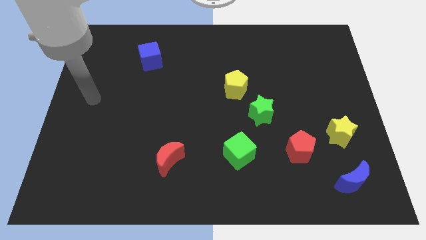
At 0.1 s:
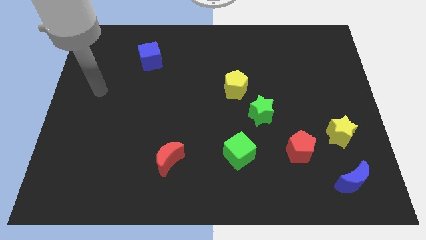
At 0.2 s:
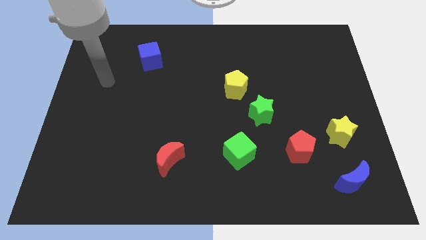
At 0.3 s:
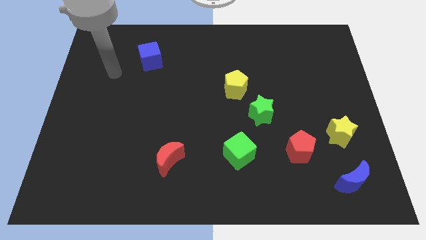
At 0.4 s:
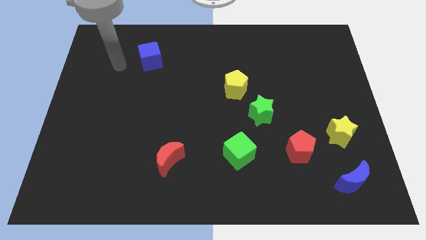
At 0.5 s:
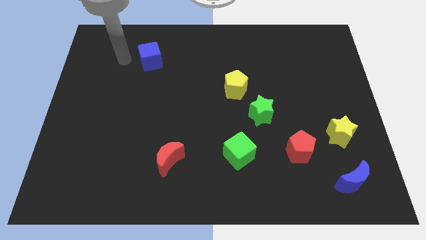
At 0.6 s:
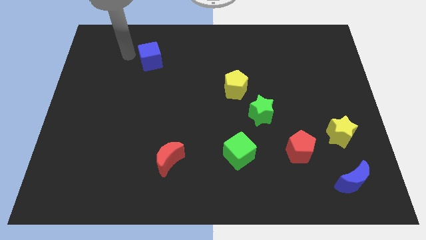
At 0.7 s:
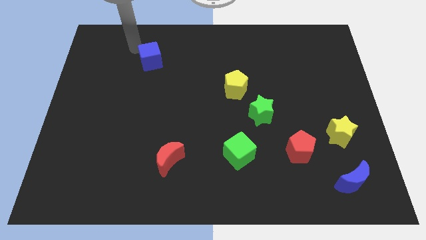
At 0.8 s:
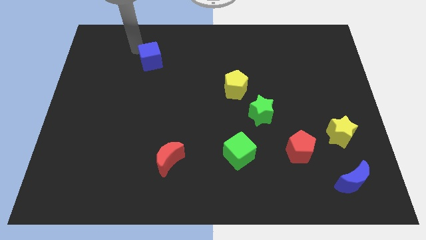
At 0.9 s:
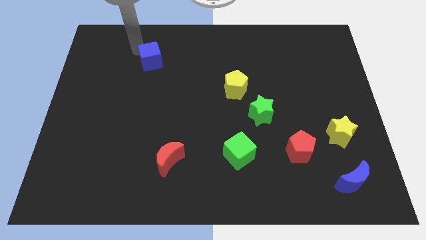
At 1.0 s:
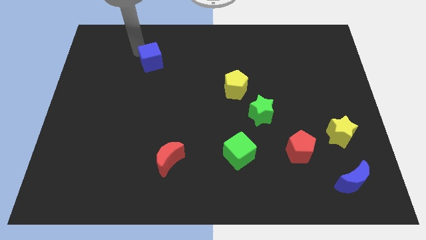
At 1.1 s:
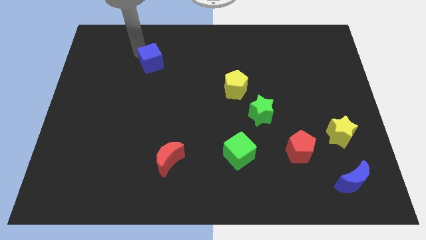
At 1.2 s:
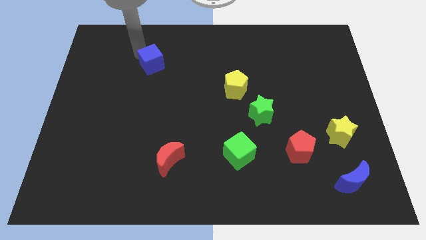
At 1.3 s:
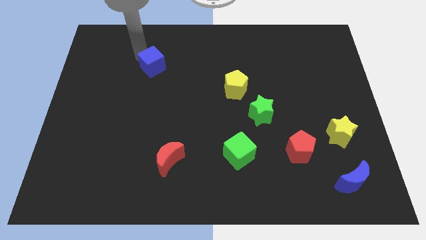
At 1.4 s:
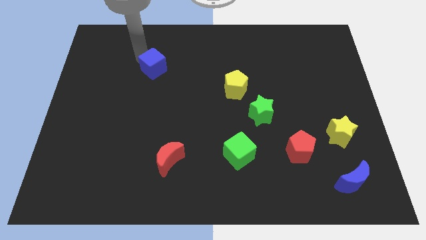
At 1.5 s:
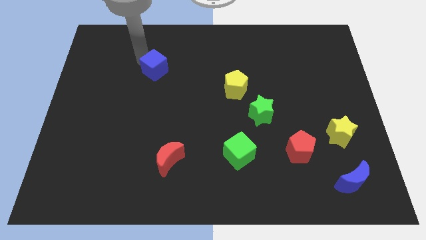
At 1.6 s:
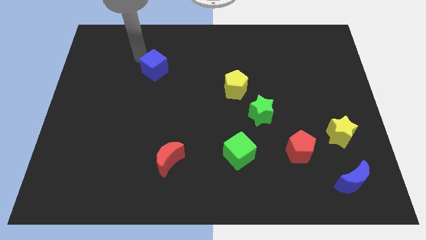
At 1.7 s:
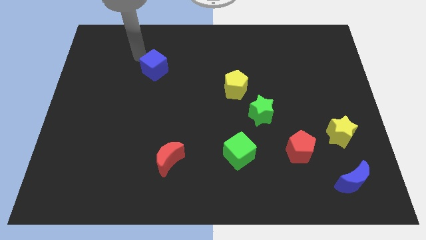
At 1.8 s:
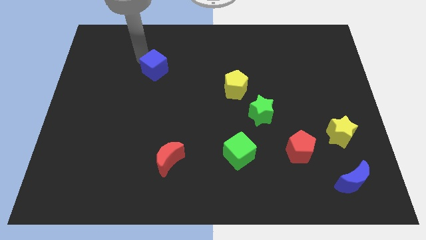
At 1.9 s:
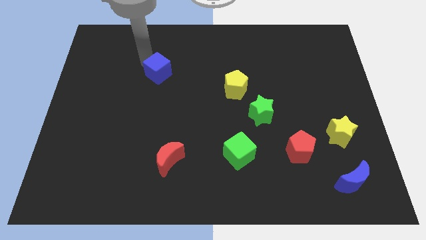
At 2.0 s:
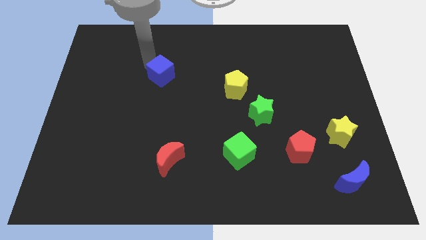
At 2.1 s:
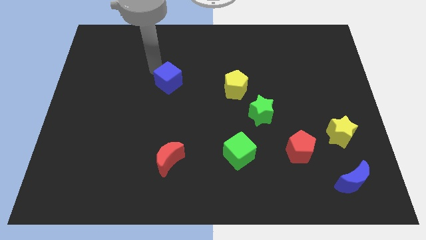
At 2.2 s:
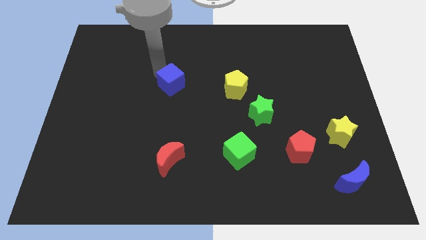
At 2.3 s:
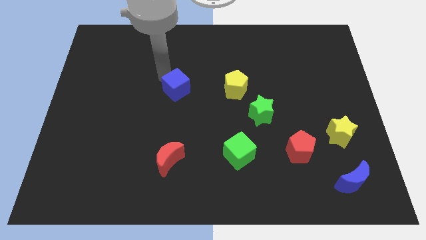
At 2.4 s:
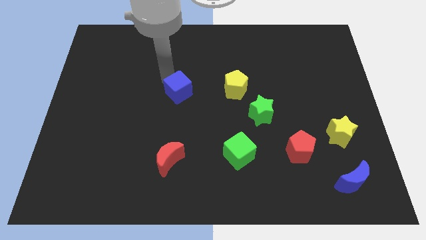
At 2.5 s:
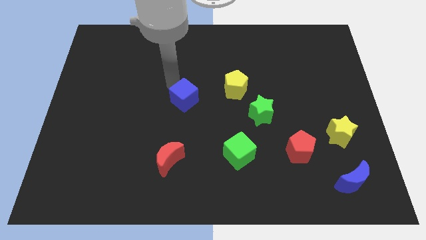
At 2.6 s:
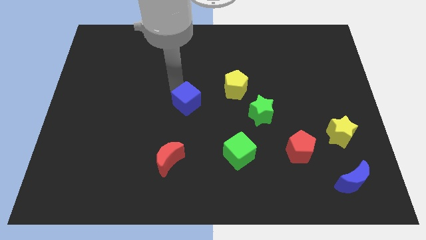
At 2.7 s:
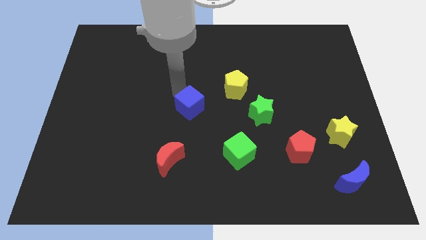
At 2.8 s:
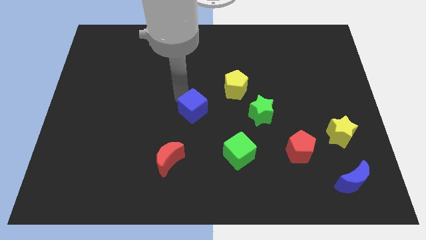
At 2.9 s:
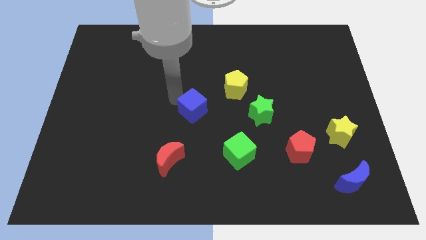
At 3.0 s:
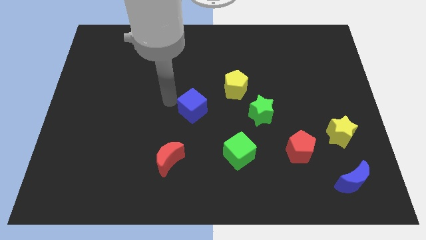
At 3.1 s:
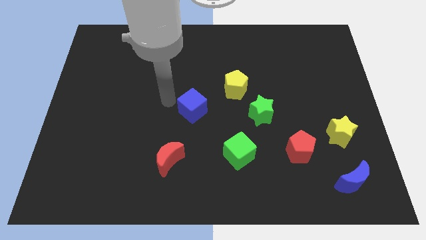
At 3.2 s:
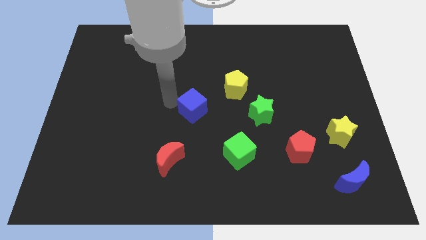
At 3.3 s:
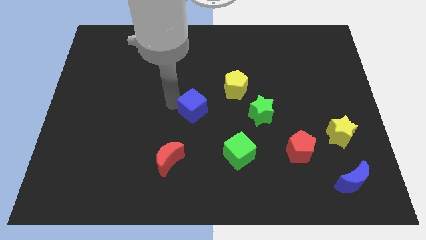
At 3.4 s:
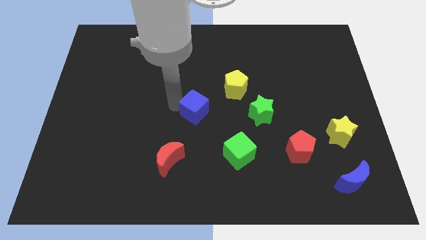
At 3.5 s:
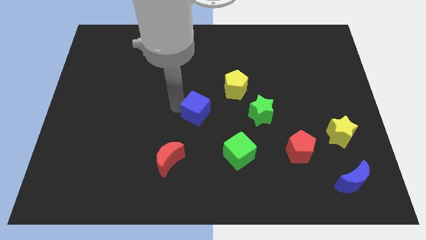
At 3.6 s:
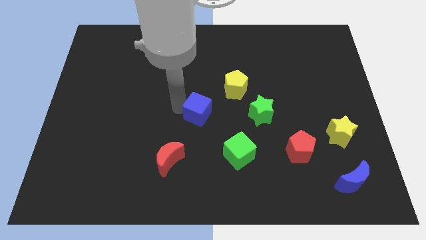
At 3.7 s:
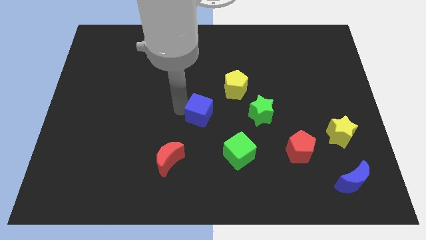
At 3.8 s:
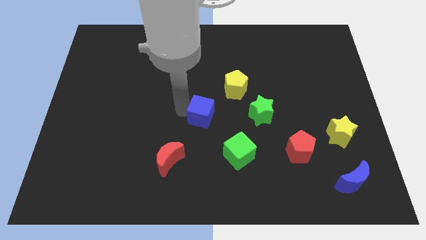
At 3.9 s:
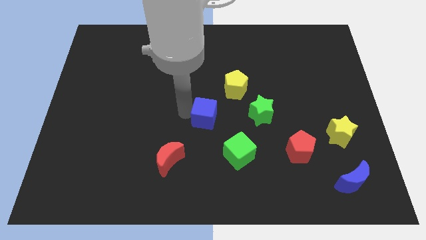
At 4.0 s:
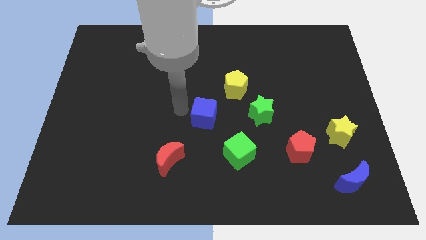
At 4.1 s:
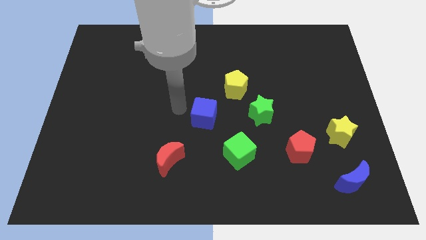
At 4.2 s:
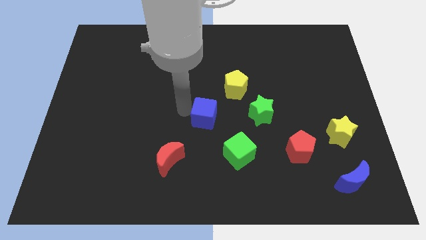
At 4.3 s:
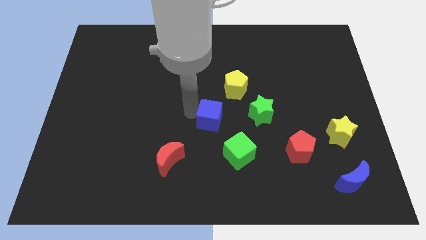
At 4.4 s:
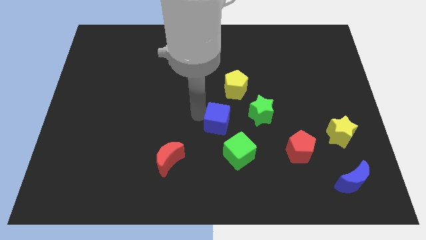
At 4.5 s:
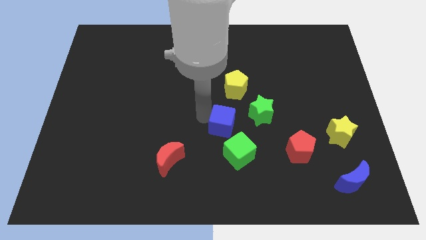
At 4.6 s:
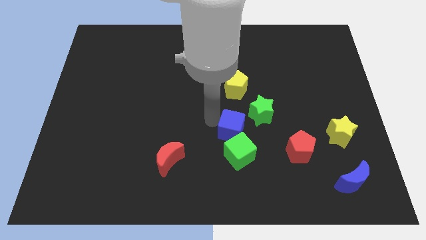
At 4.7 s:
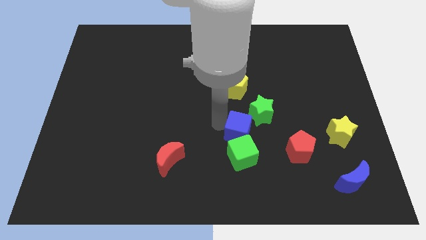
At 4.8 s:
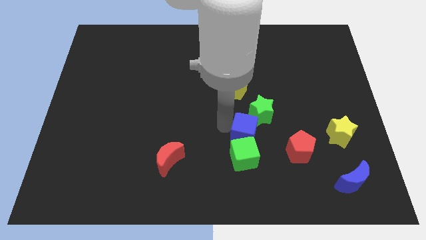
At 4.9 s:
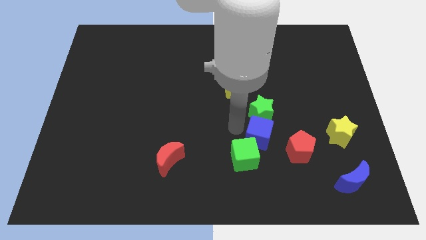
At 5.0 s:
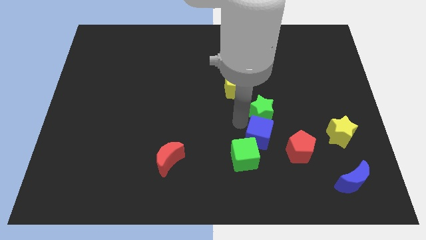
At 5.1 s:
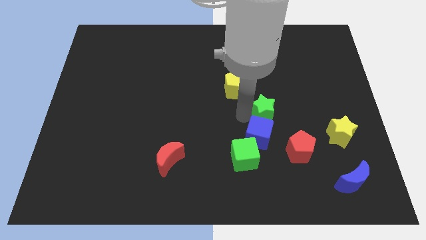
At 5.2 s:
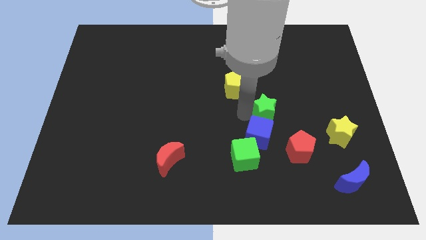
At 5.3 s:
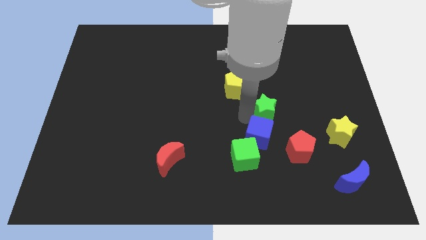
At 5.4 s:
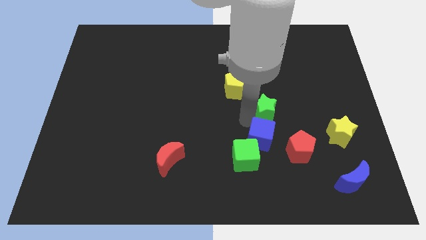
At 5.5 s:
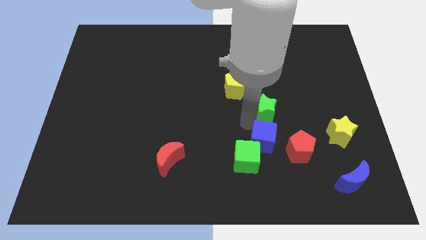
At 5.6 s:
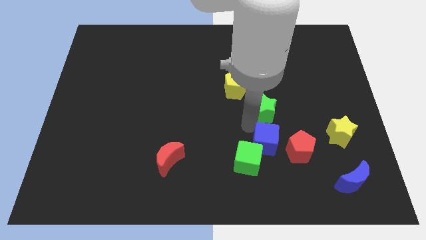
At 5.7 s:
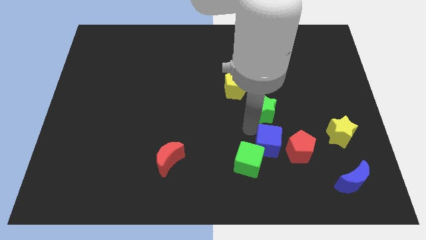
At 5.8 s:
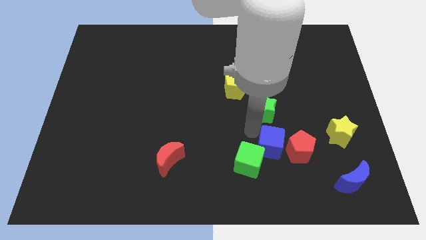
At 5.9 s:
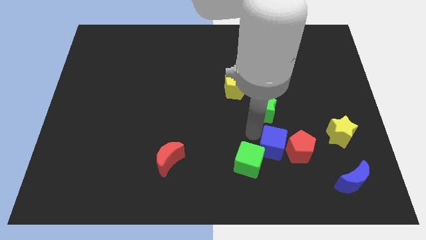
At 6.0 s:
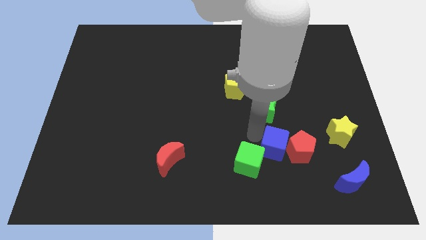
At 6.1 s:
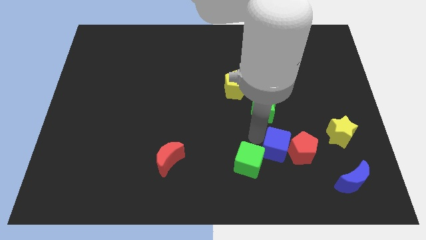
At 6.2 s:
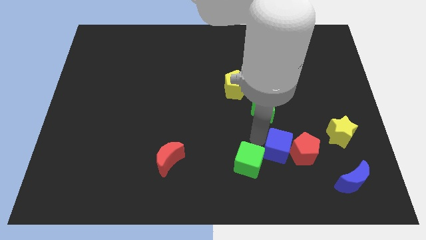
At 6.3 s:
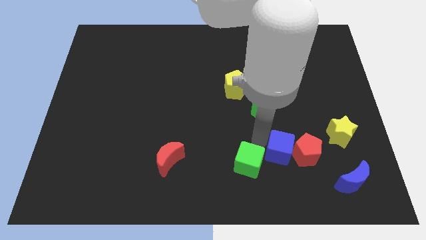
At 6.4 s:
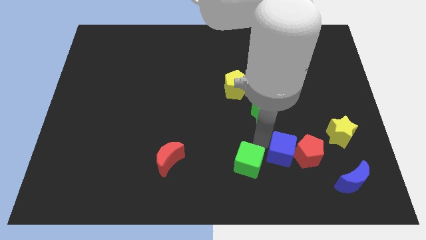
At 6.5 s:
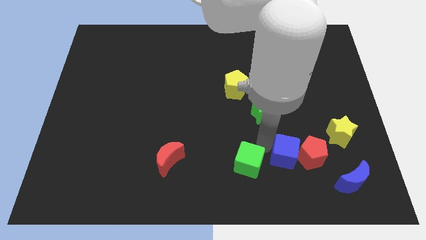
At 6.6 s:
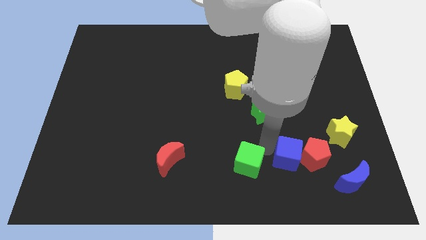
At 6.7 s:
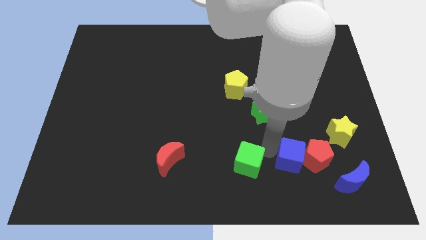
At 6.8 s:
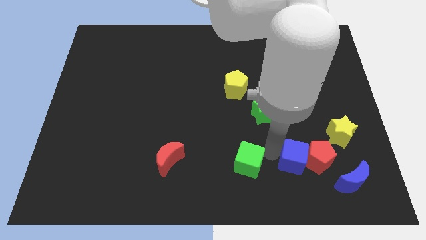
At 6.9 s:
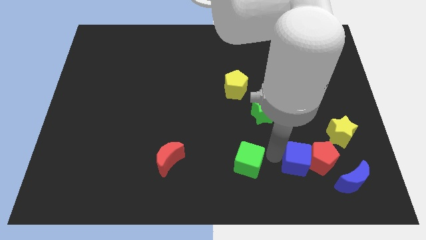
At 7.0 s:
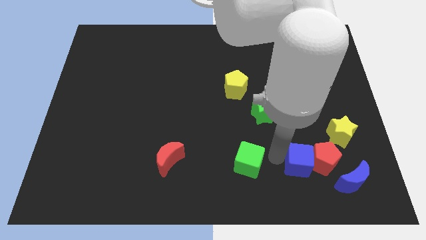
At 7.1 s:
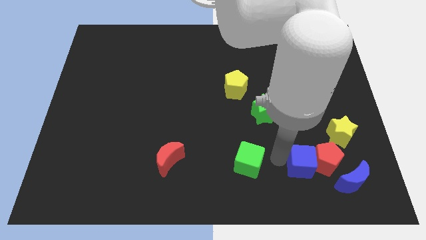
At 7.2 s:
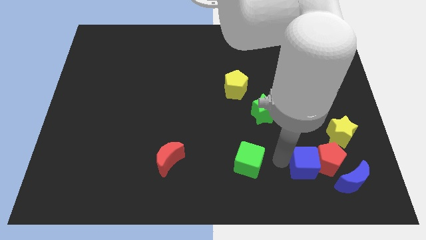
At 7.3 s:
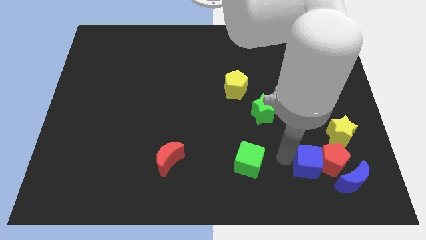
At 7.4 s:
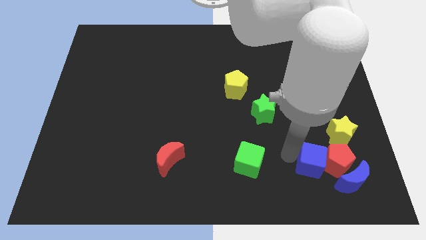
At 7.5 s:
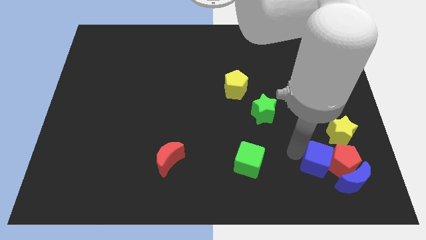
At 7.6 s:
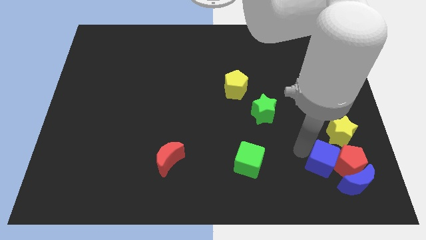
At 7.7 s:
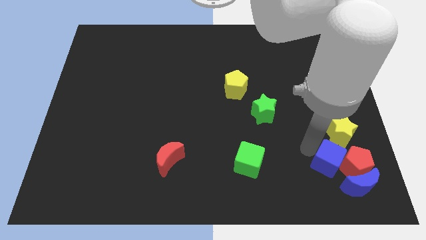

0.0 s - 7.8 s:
slide the blue cube below the yellow star

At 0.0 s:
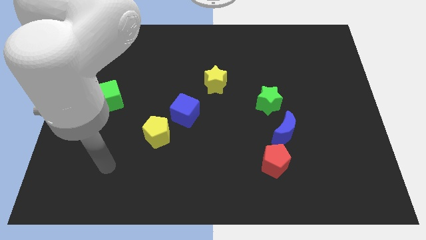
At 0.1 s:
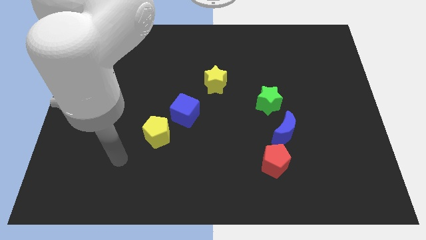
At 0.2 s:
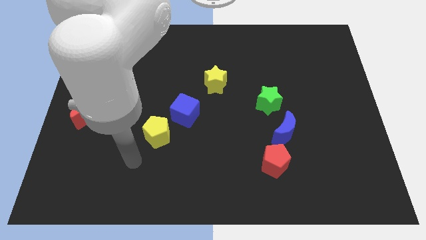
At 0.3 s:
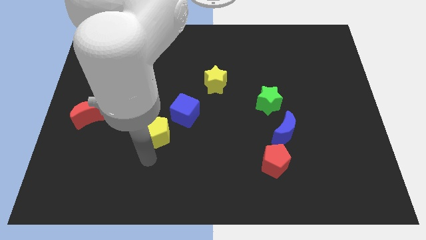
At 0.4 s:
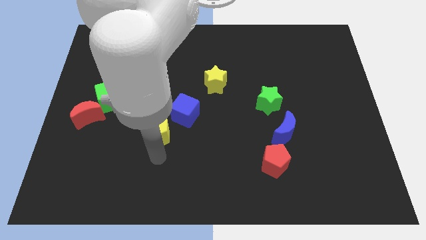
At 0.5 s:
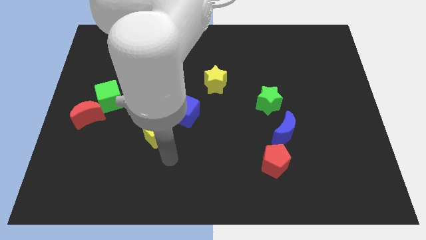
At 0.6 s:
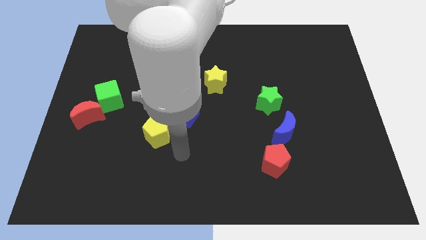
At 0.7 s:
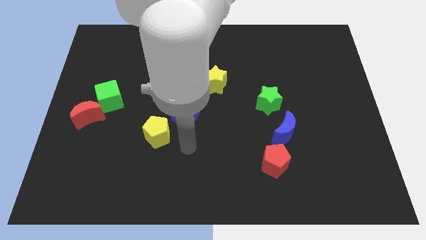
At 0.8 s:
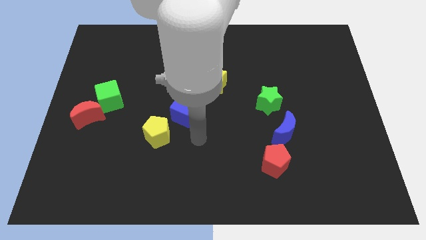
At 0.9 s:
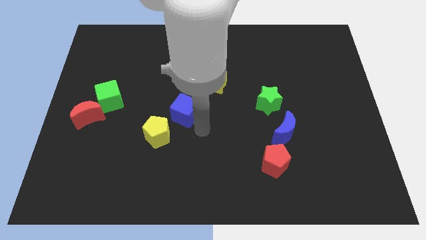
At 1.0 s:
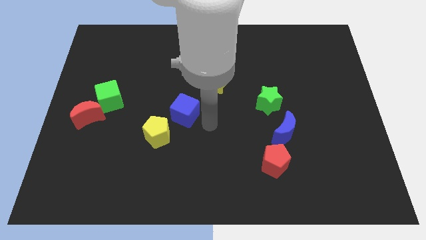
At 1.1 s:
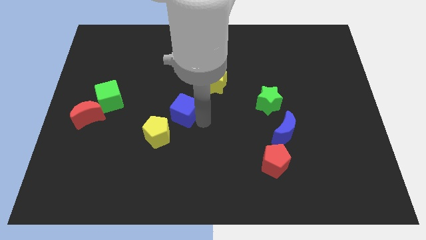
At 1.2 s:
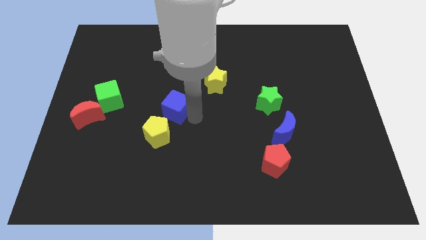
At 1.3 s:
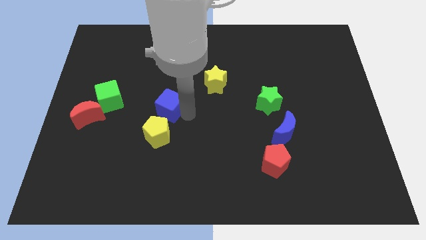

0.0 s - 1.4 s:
push the blue cube just right of the green cube
